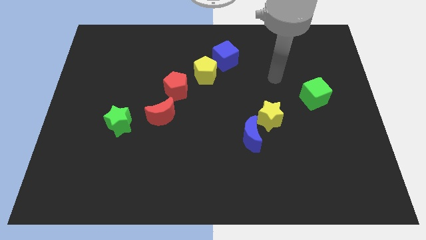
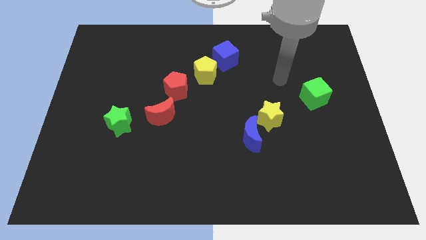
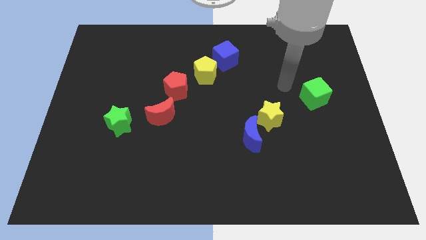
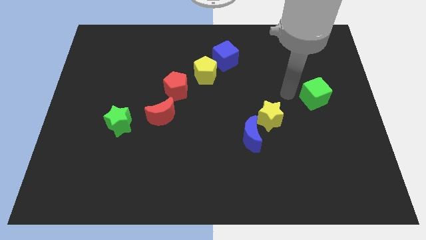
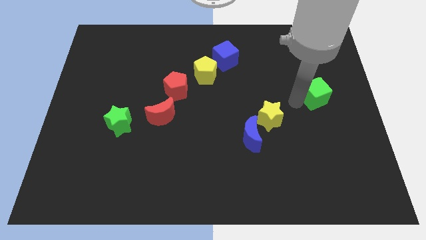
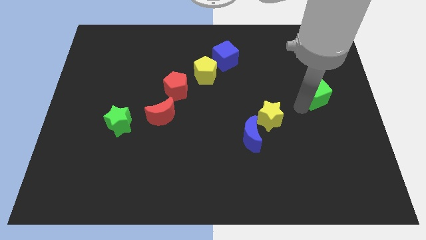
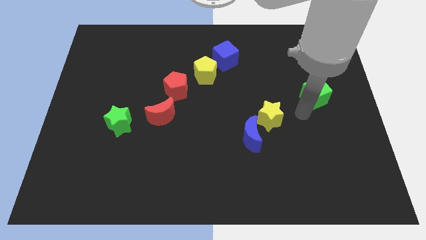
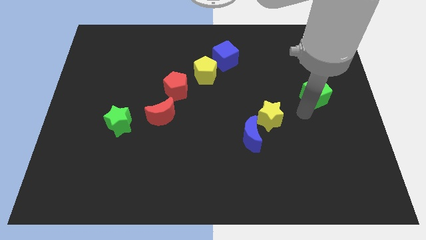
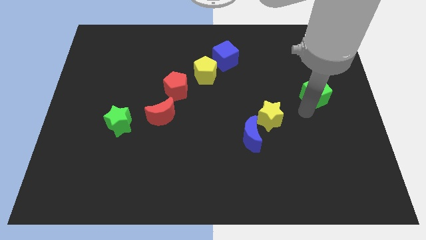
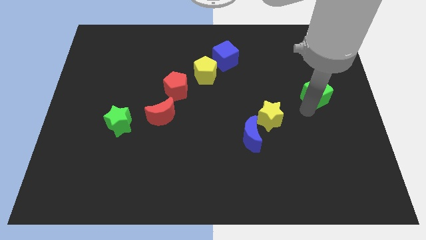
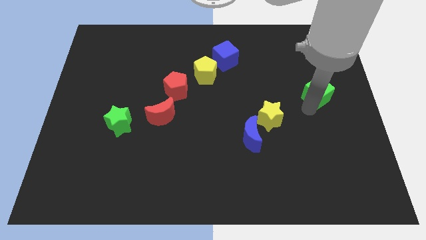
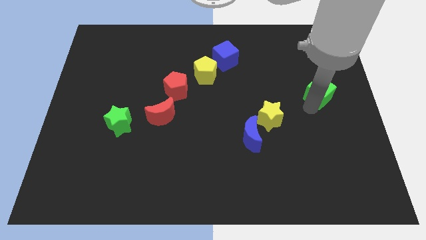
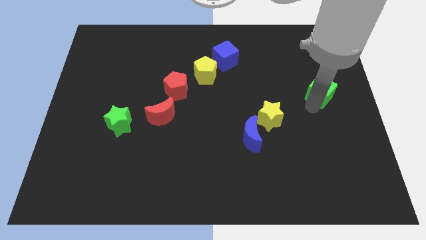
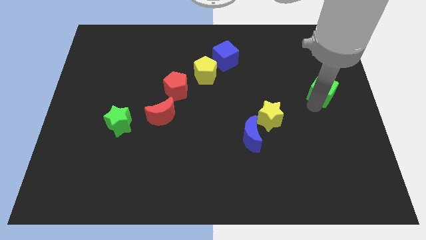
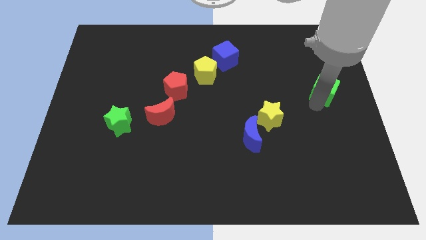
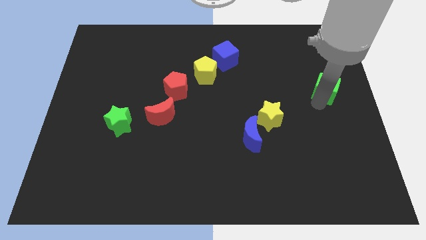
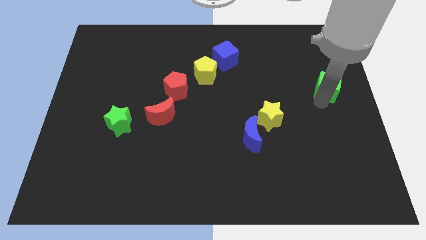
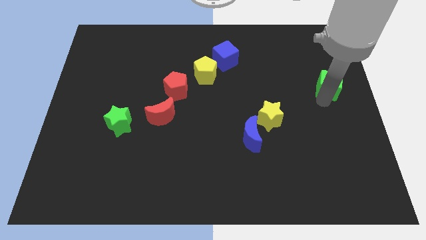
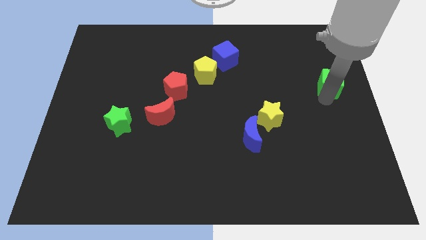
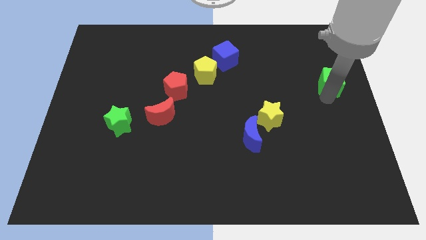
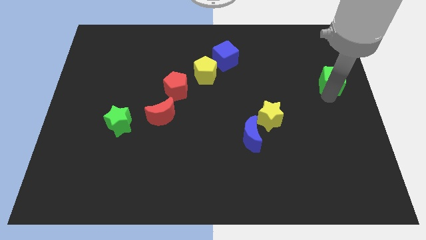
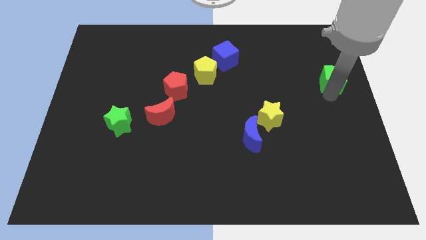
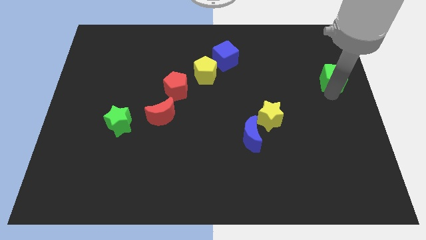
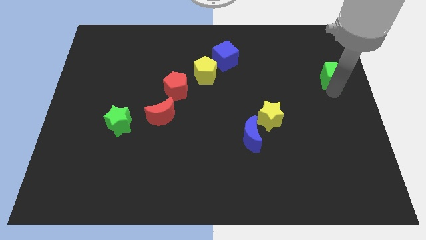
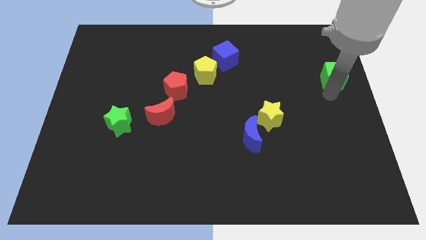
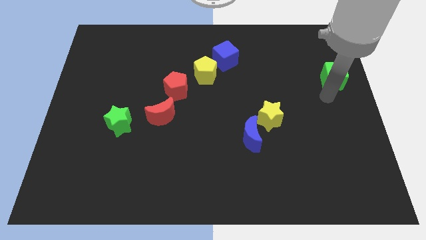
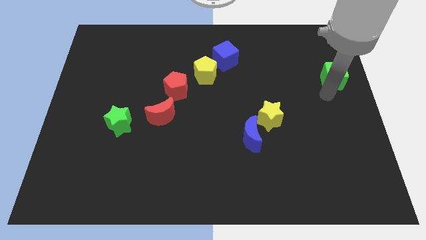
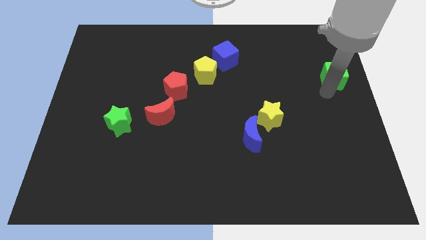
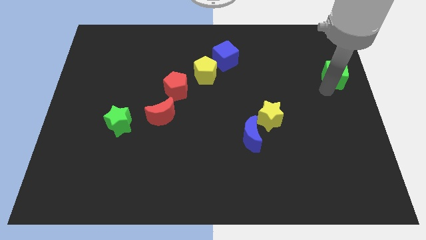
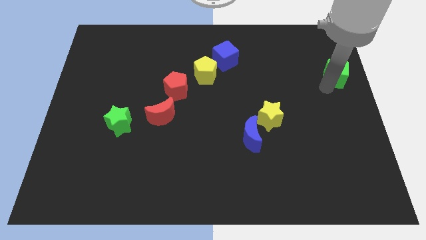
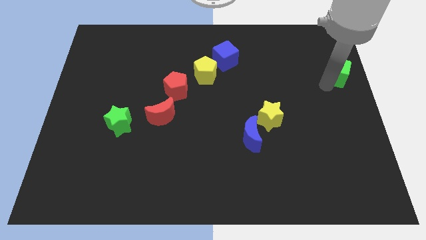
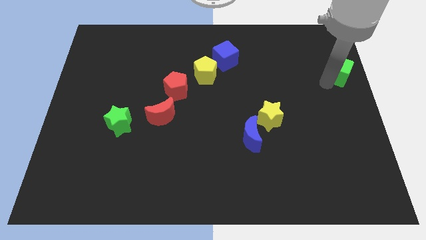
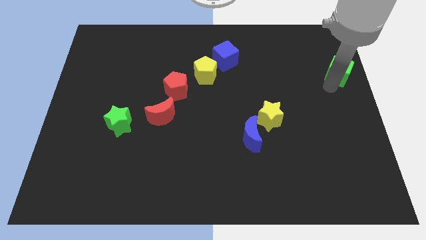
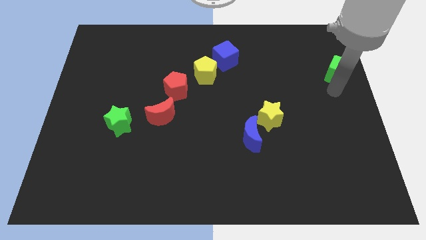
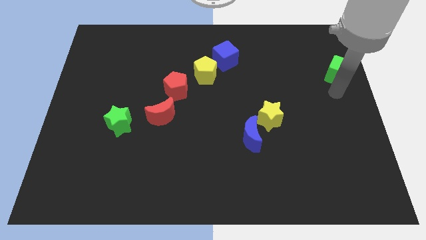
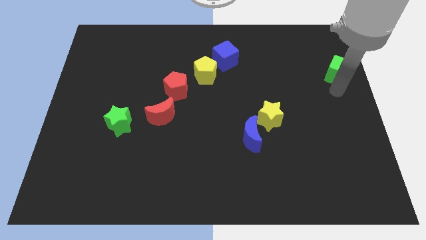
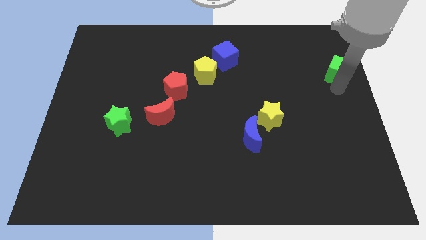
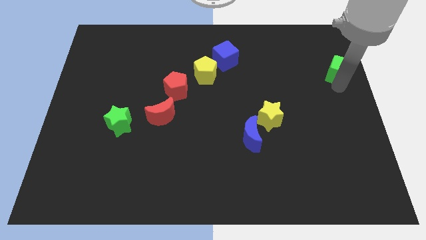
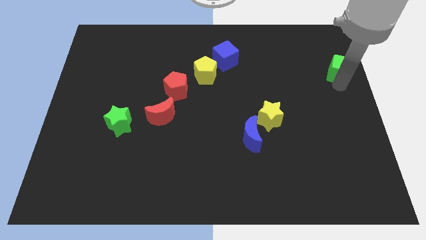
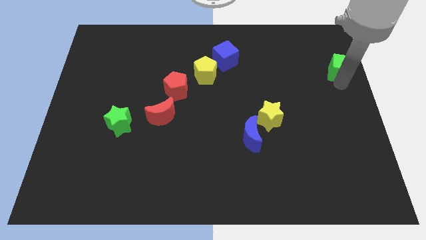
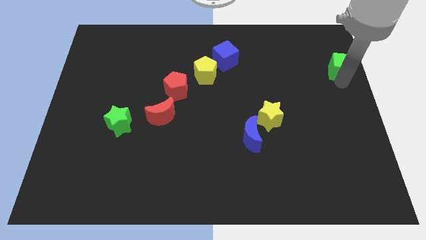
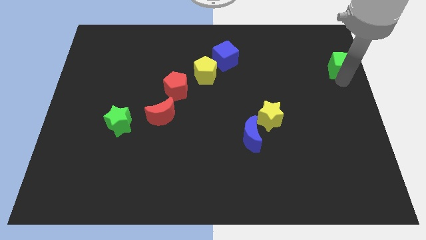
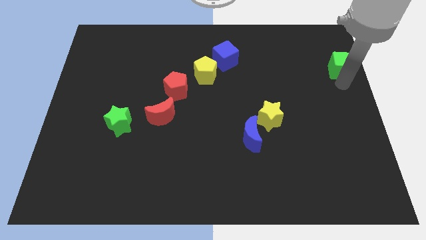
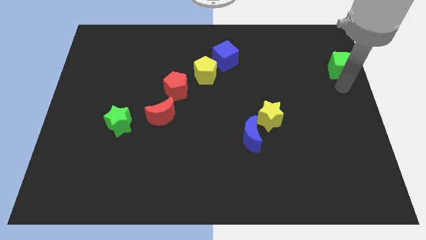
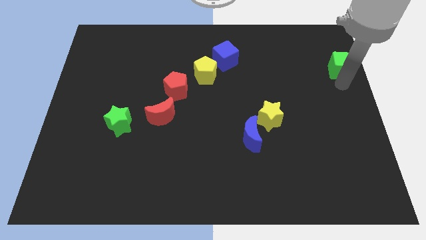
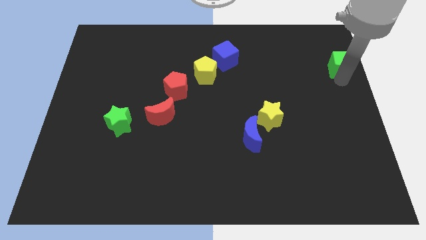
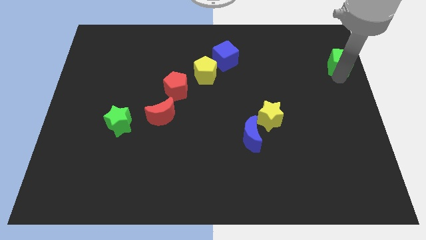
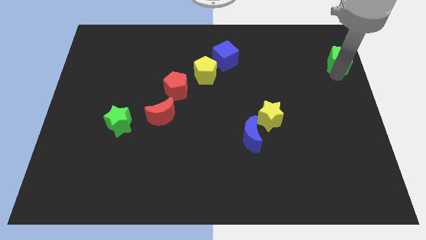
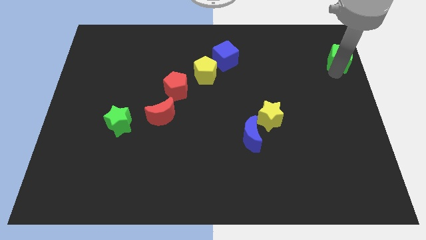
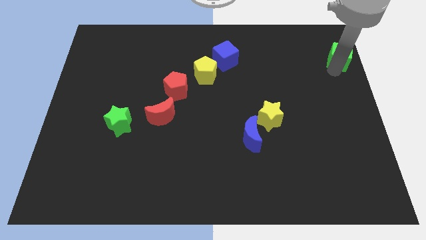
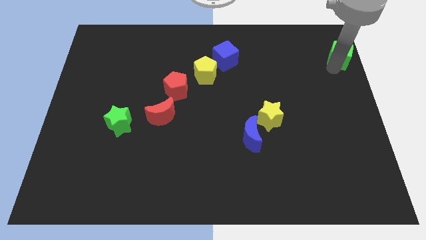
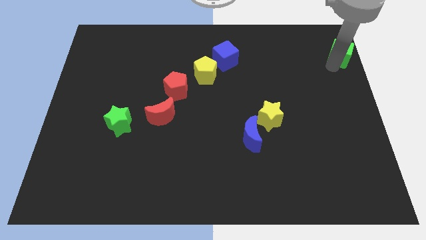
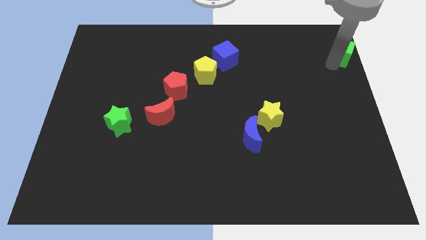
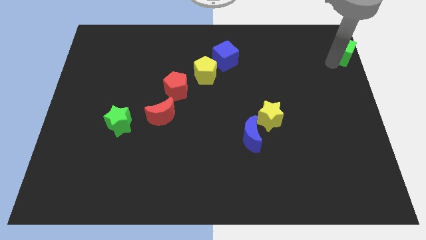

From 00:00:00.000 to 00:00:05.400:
put the green cube to the top right

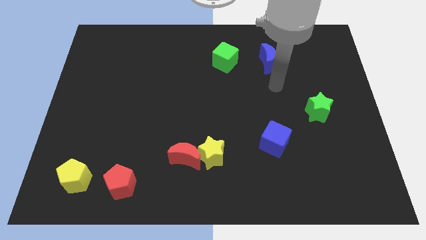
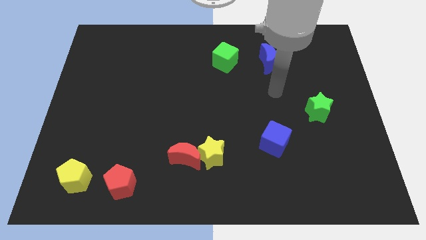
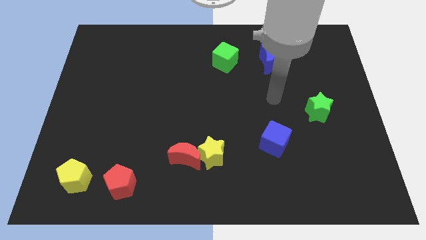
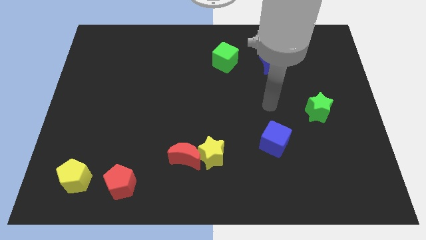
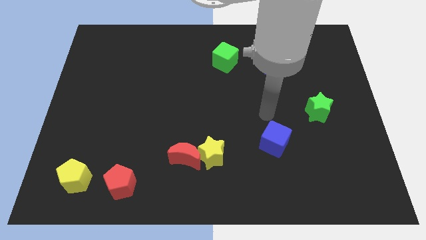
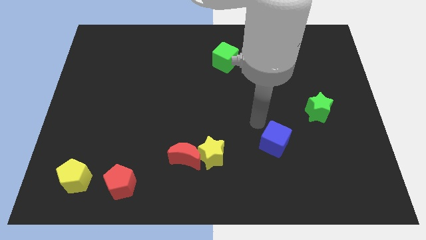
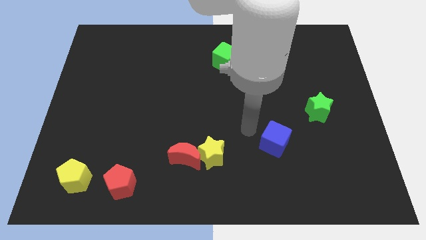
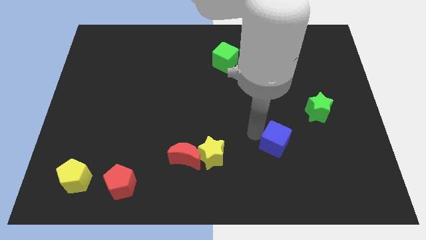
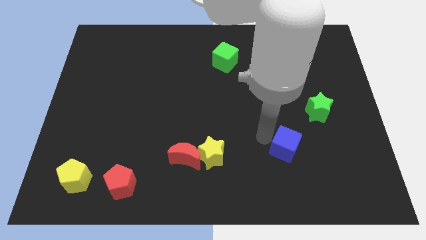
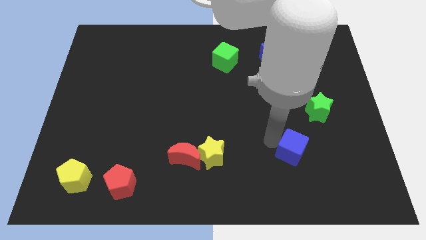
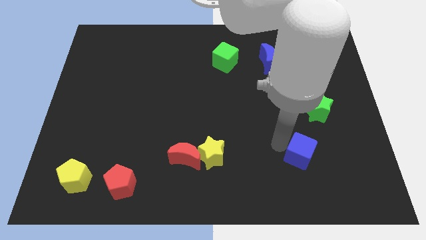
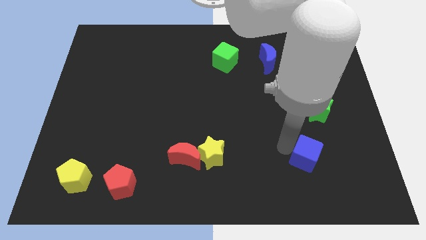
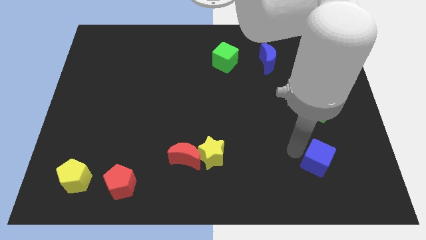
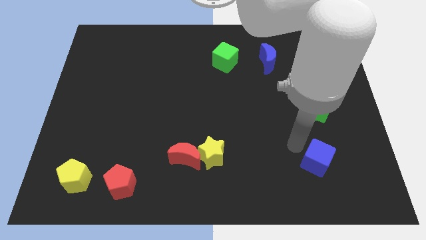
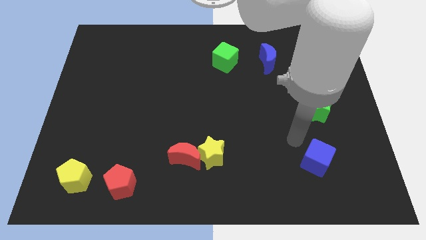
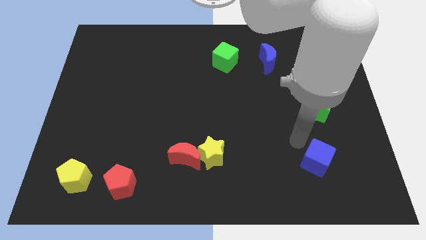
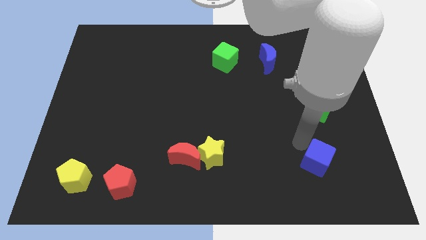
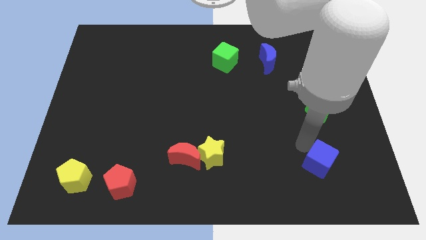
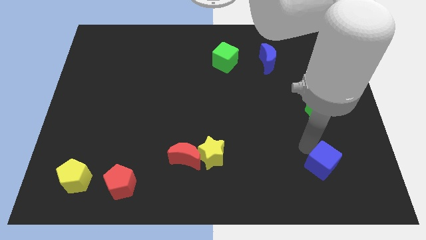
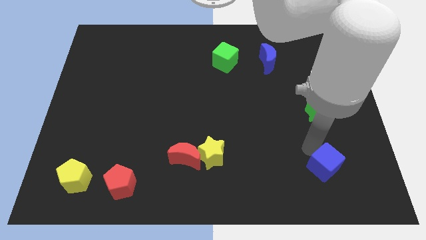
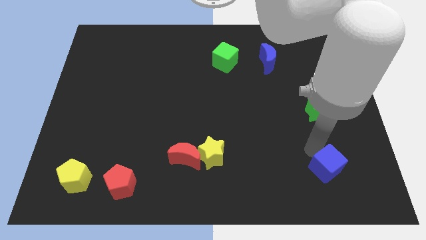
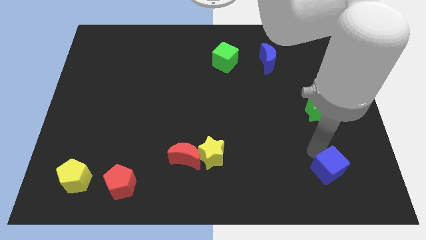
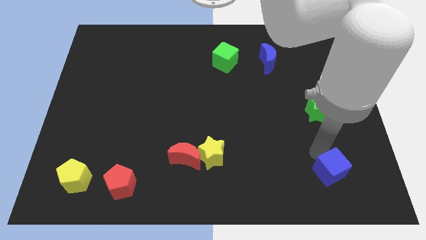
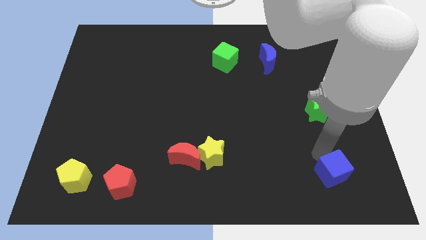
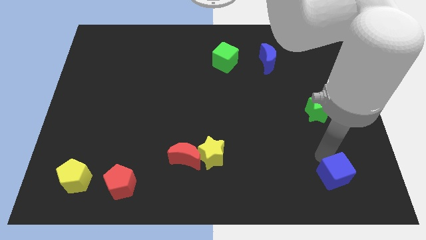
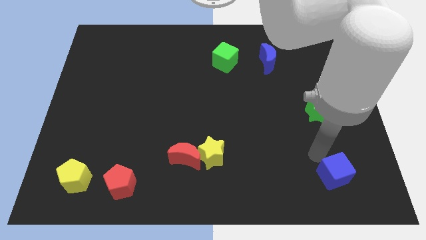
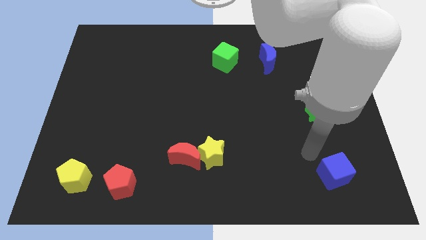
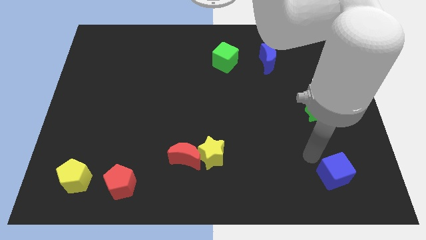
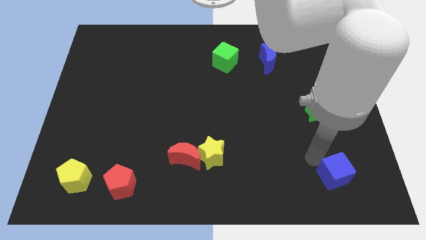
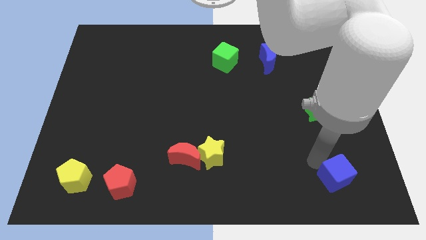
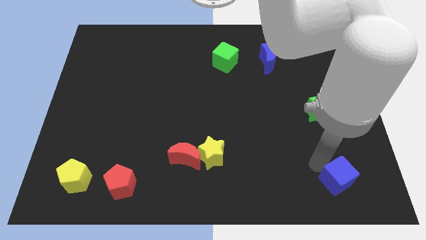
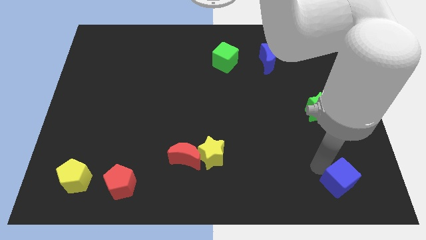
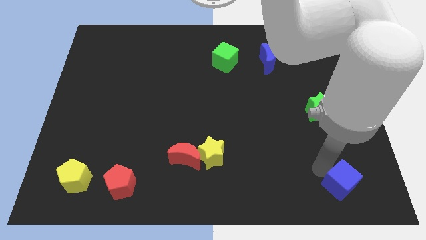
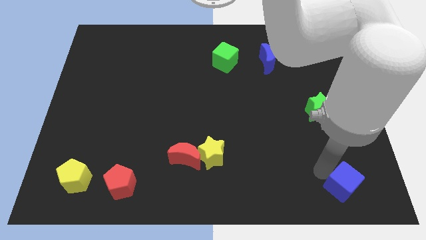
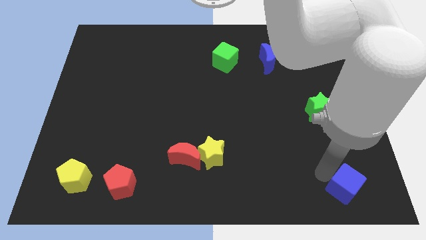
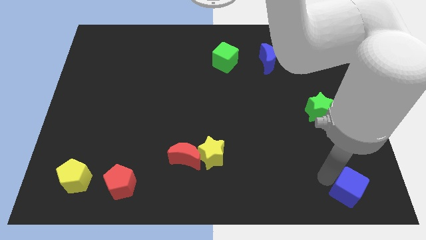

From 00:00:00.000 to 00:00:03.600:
move the blue cube to the bottom right of the board
